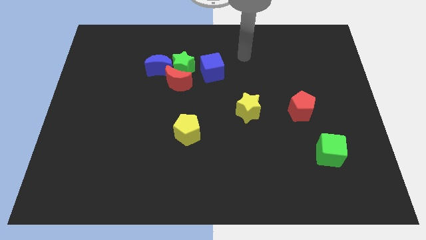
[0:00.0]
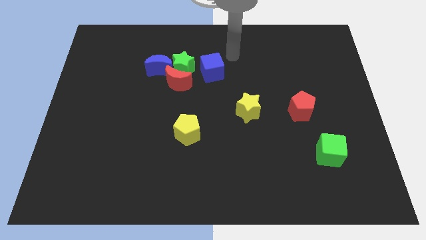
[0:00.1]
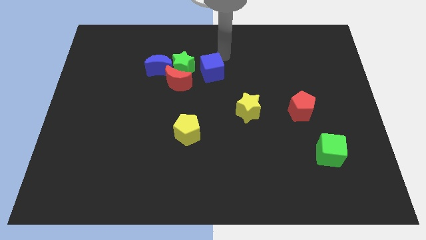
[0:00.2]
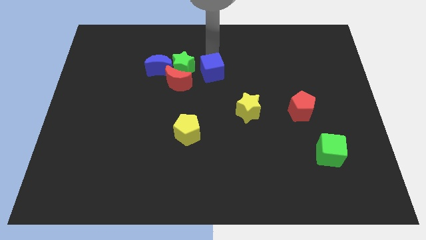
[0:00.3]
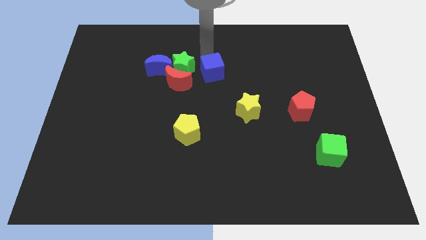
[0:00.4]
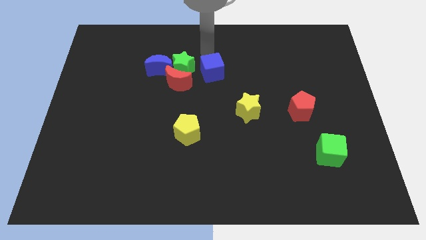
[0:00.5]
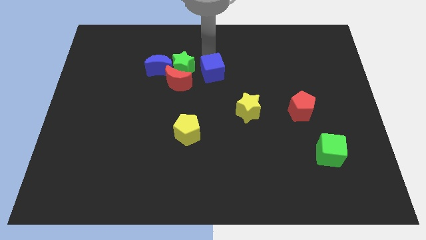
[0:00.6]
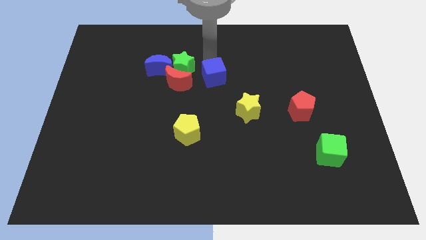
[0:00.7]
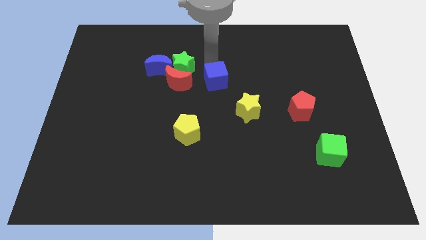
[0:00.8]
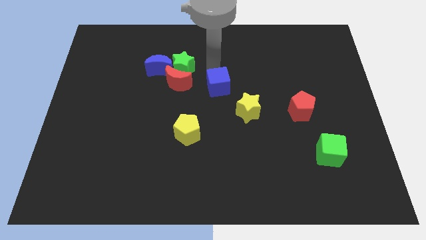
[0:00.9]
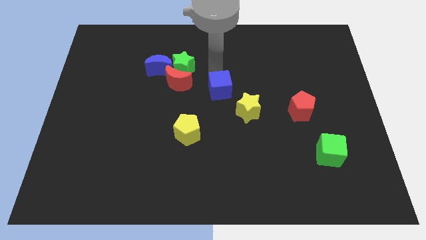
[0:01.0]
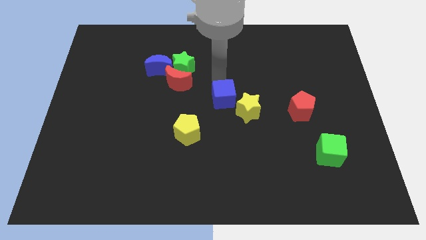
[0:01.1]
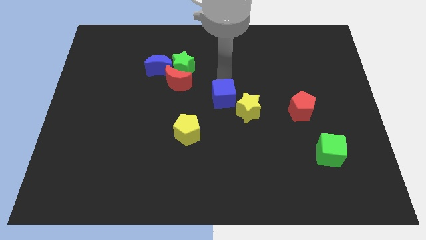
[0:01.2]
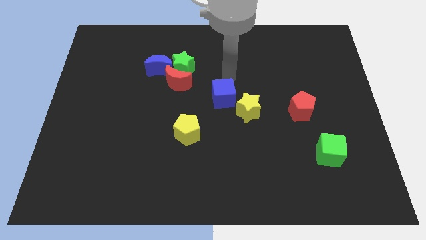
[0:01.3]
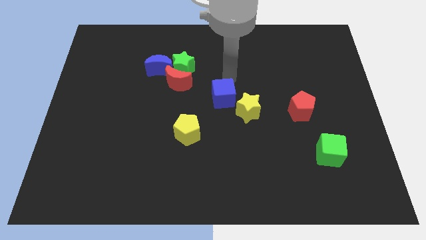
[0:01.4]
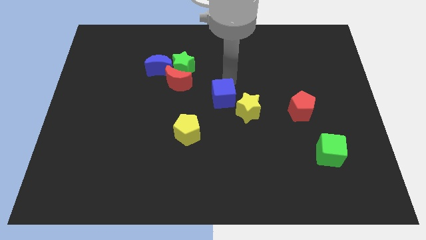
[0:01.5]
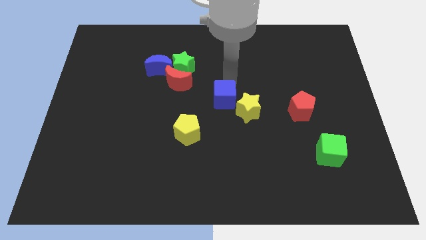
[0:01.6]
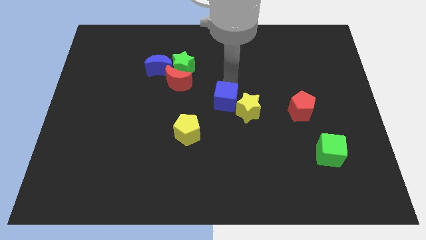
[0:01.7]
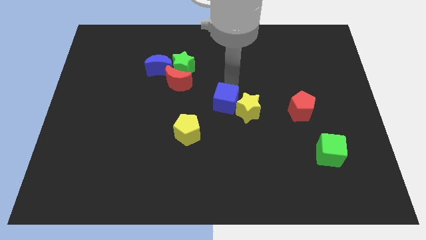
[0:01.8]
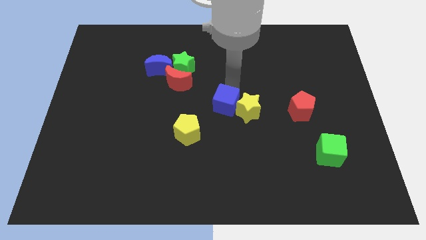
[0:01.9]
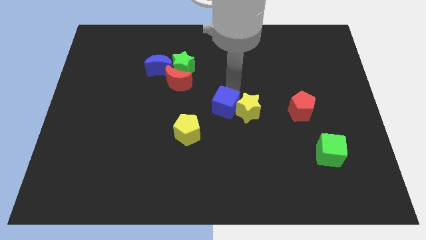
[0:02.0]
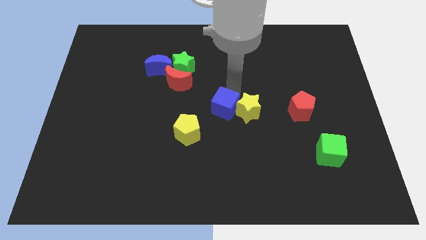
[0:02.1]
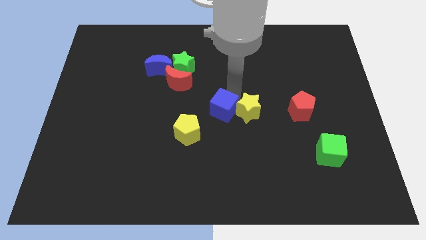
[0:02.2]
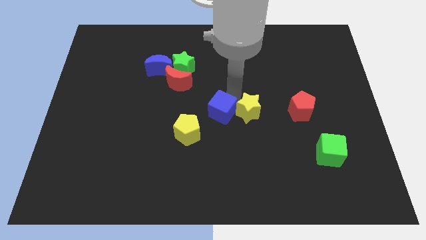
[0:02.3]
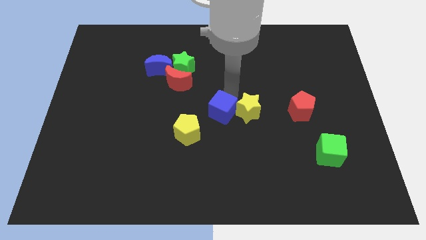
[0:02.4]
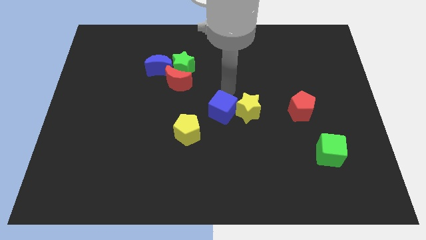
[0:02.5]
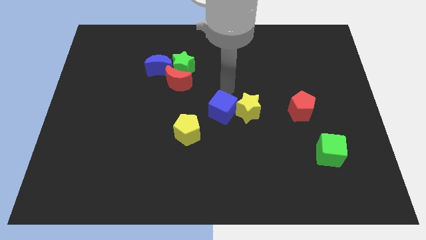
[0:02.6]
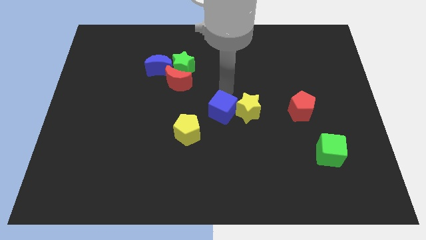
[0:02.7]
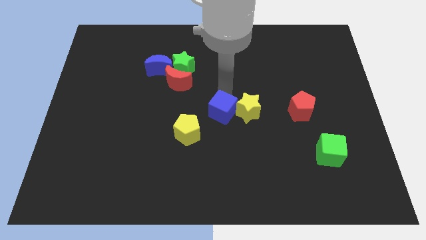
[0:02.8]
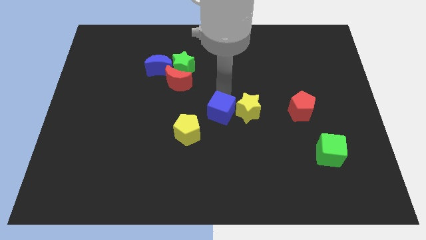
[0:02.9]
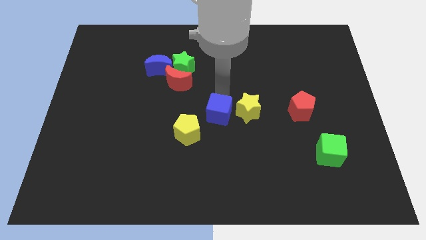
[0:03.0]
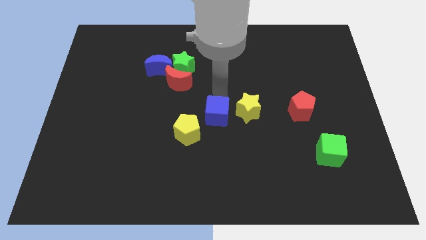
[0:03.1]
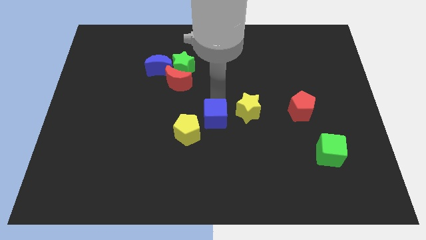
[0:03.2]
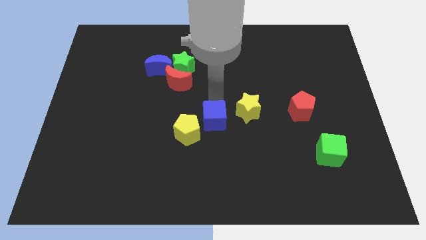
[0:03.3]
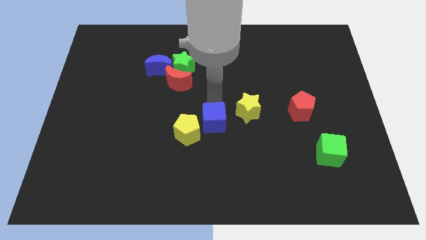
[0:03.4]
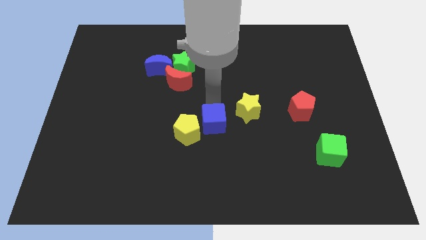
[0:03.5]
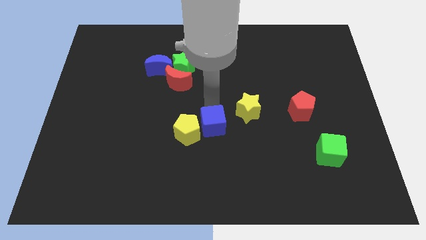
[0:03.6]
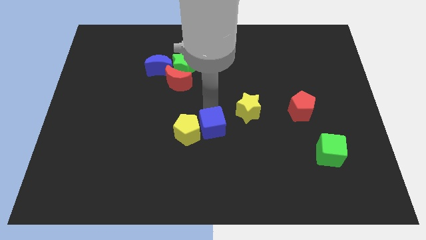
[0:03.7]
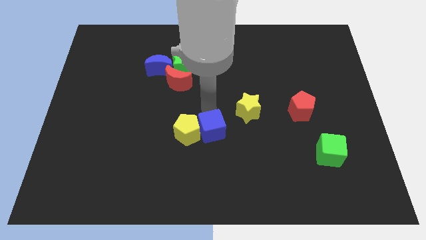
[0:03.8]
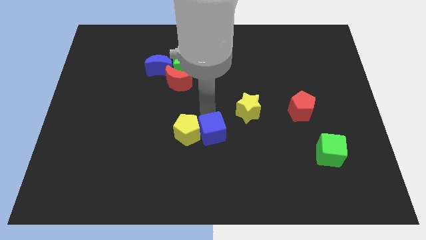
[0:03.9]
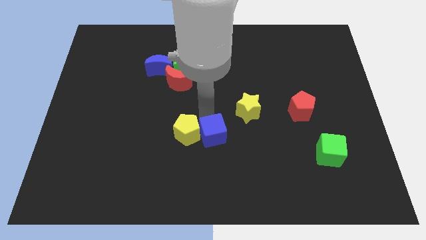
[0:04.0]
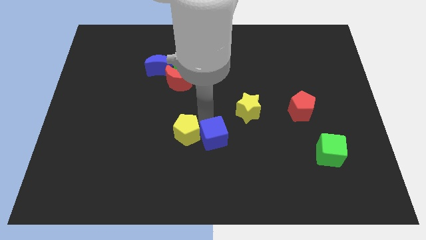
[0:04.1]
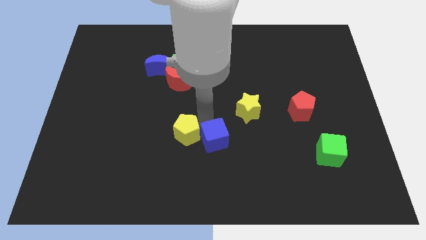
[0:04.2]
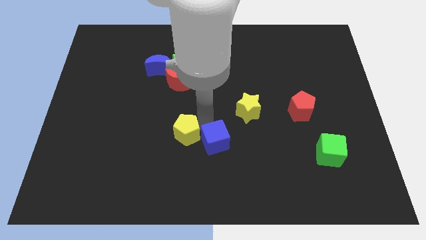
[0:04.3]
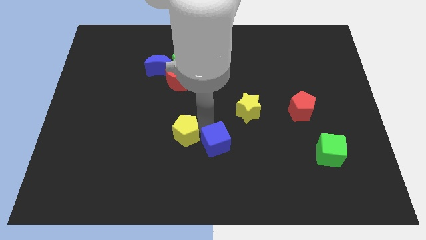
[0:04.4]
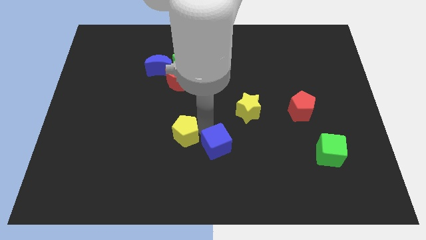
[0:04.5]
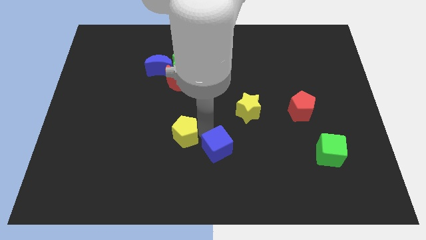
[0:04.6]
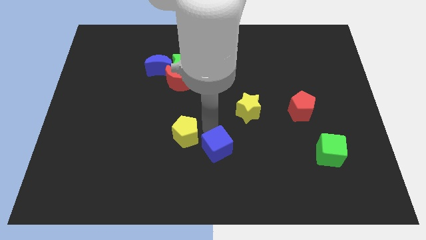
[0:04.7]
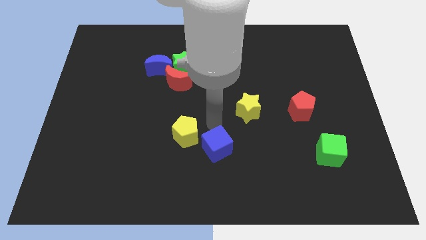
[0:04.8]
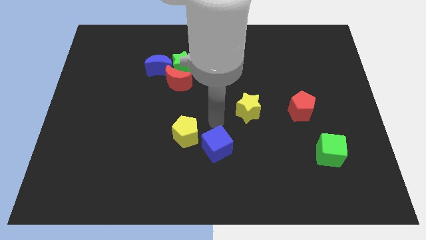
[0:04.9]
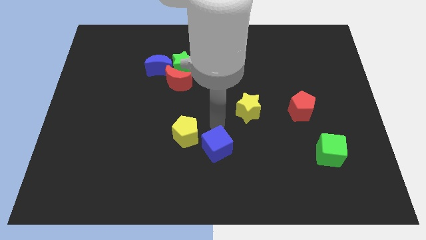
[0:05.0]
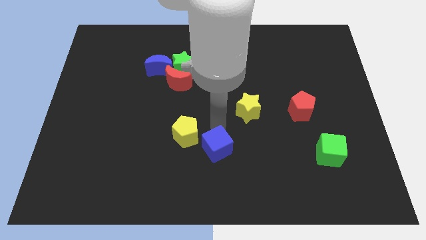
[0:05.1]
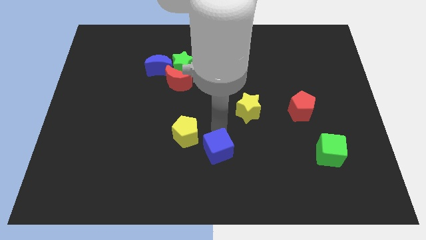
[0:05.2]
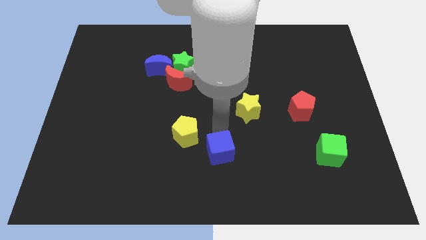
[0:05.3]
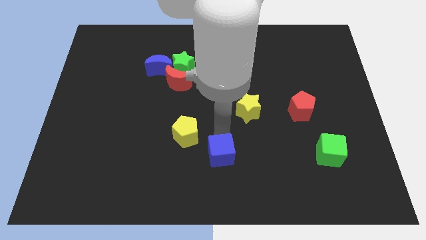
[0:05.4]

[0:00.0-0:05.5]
put the blue cube to the bottom

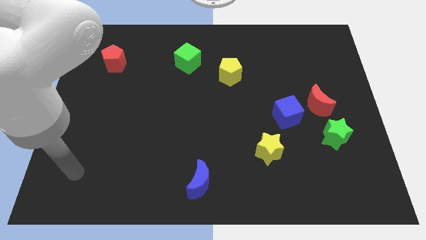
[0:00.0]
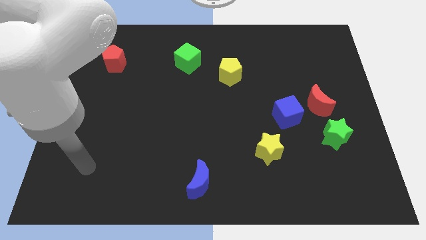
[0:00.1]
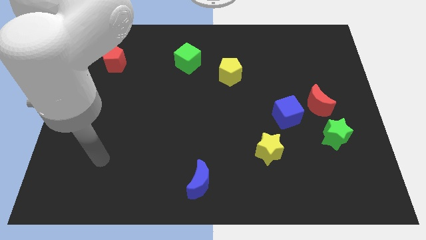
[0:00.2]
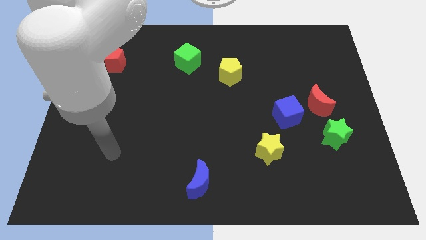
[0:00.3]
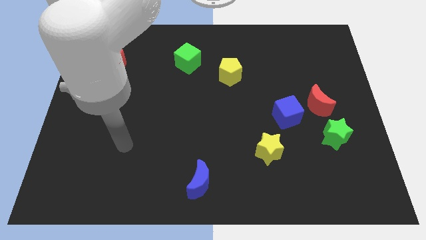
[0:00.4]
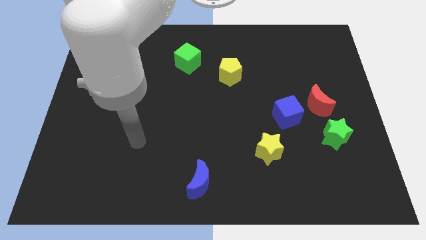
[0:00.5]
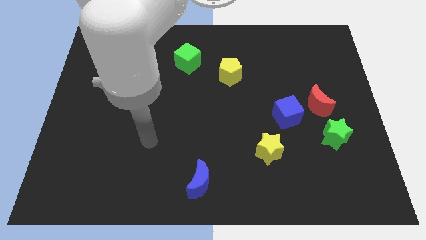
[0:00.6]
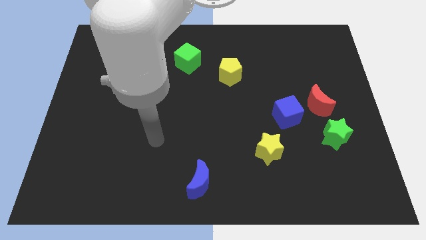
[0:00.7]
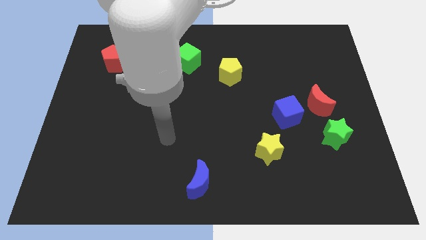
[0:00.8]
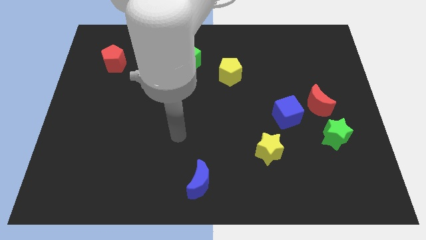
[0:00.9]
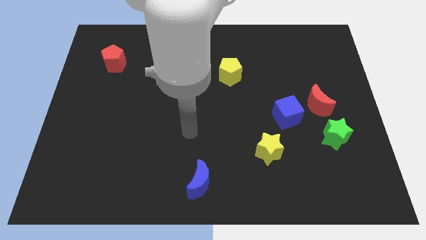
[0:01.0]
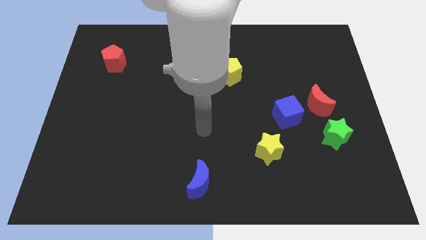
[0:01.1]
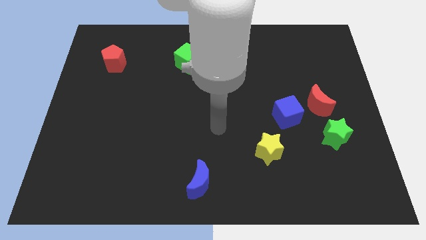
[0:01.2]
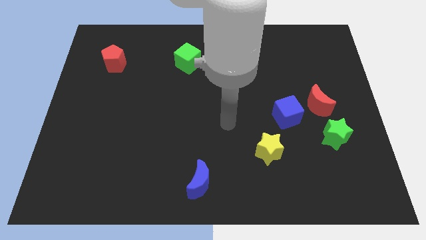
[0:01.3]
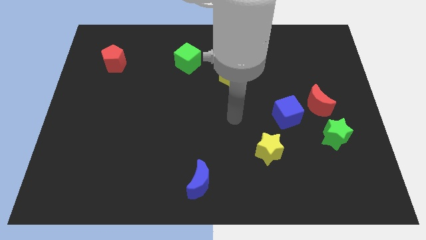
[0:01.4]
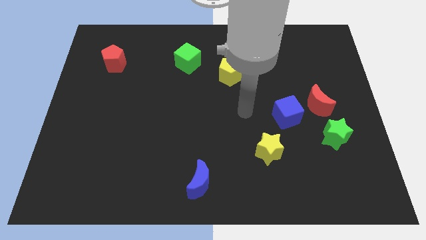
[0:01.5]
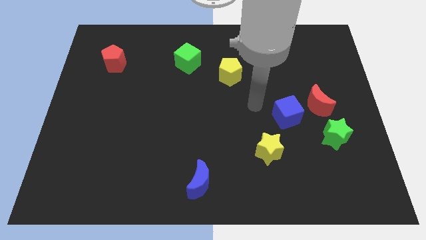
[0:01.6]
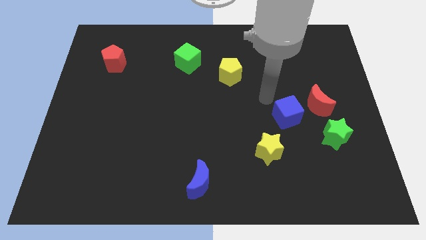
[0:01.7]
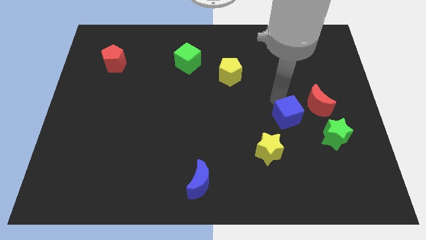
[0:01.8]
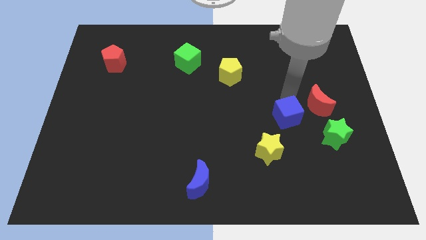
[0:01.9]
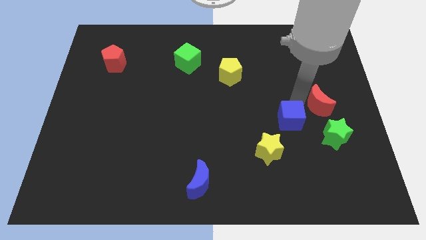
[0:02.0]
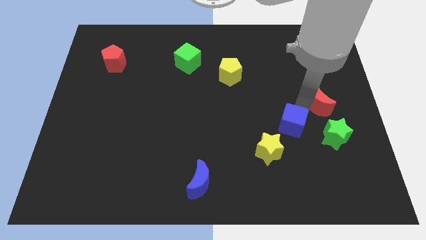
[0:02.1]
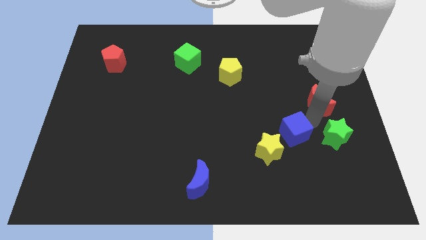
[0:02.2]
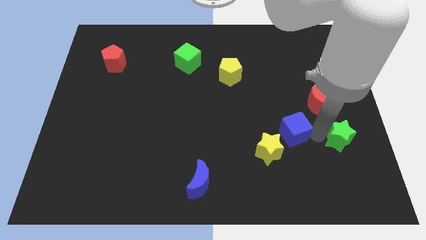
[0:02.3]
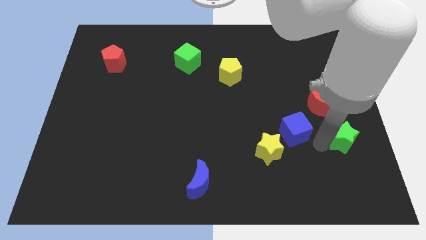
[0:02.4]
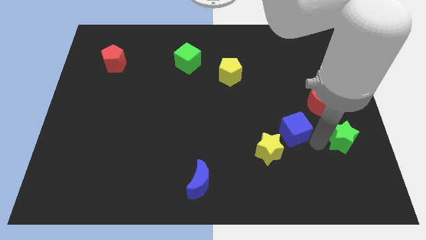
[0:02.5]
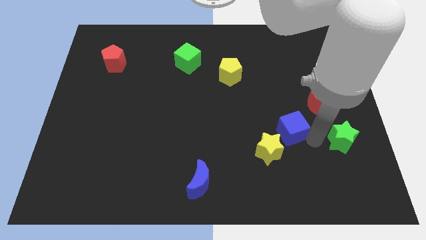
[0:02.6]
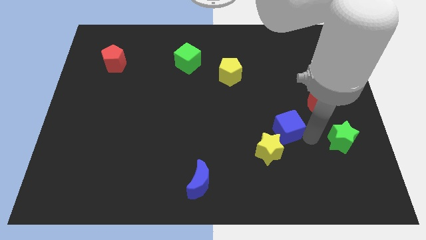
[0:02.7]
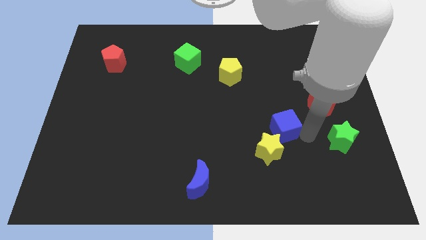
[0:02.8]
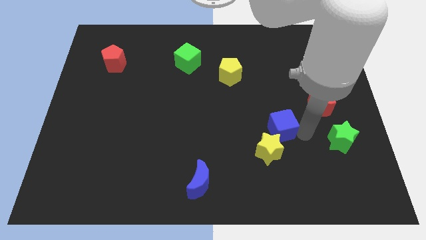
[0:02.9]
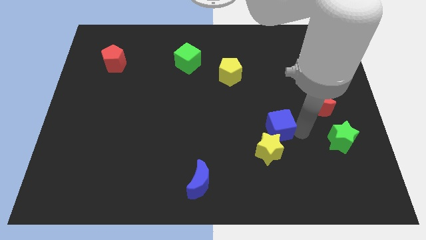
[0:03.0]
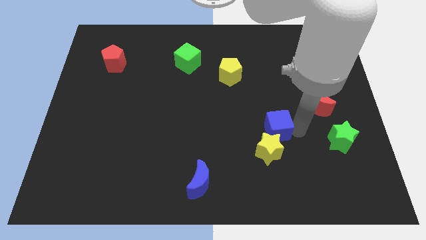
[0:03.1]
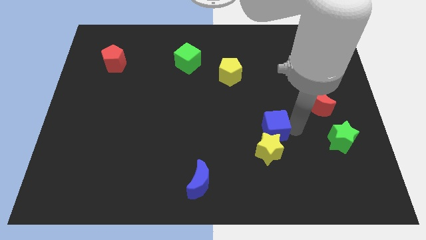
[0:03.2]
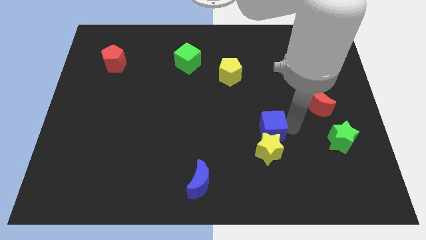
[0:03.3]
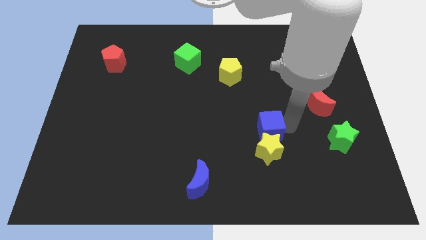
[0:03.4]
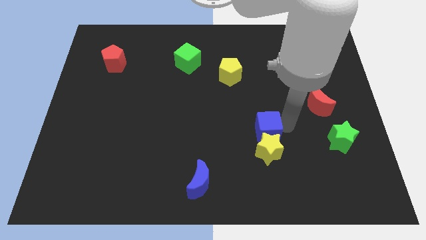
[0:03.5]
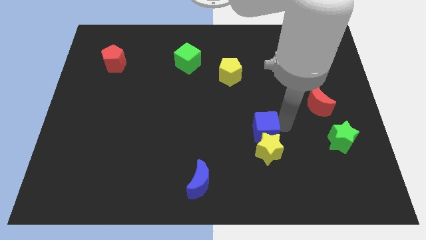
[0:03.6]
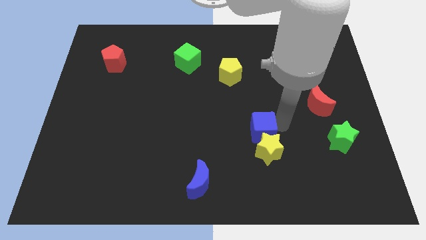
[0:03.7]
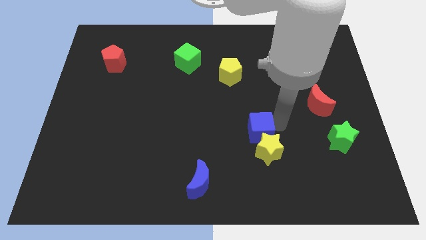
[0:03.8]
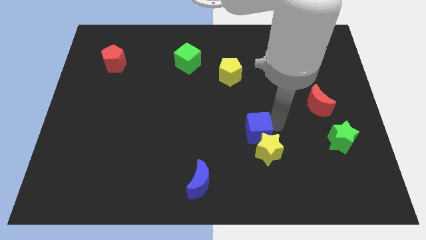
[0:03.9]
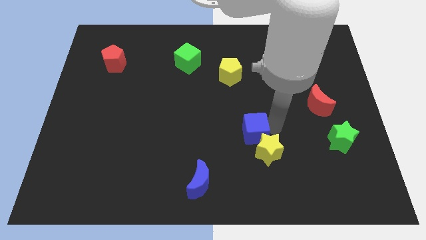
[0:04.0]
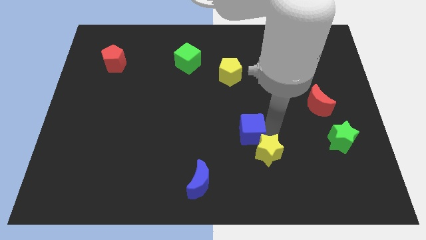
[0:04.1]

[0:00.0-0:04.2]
move the blue cube to the center
